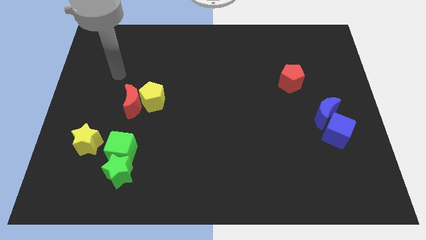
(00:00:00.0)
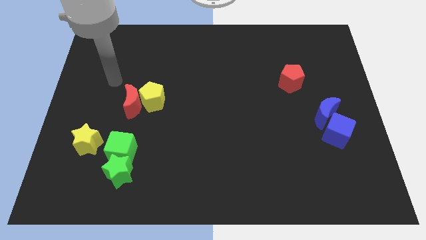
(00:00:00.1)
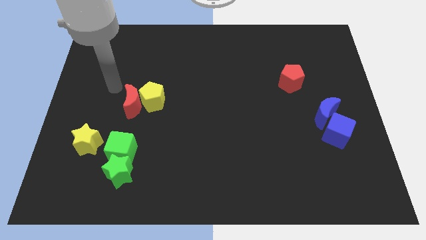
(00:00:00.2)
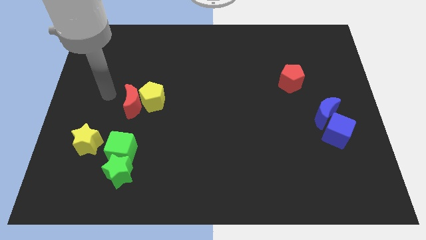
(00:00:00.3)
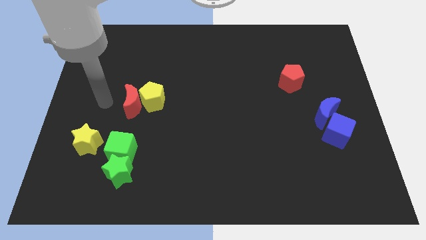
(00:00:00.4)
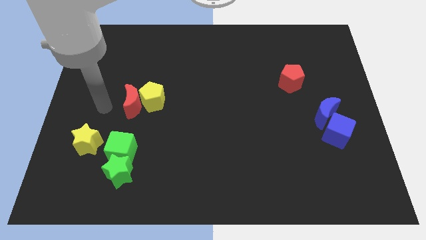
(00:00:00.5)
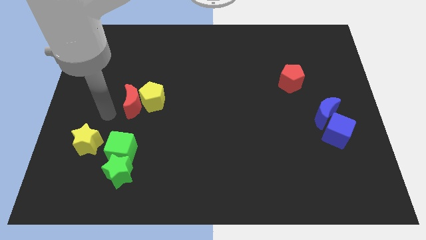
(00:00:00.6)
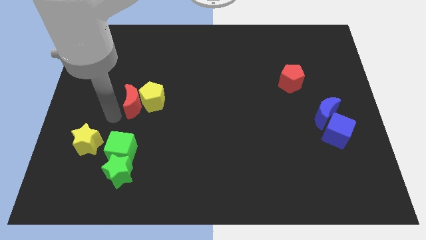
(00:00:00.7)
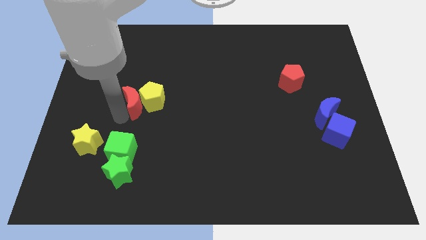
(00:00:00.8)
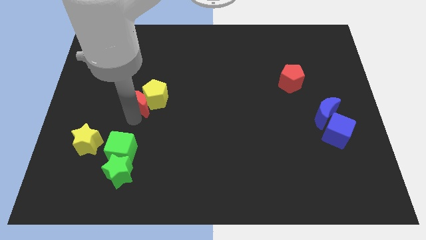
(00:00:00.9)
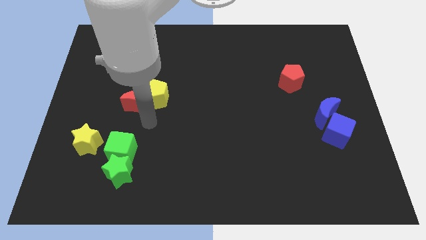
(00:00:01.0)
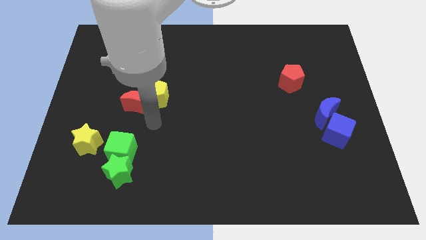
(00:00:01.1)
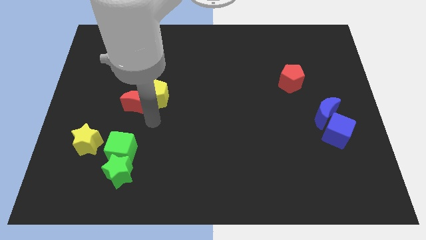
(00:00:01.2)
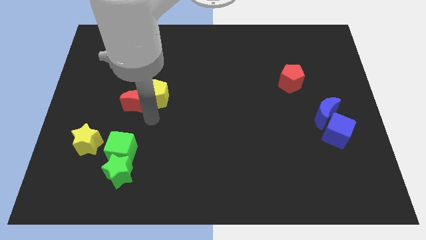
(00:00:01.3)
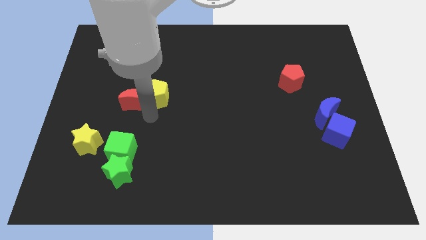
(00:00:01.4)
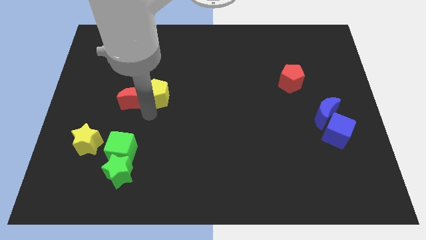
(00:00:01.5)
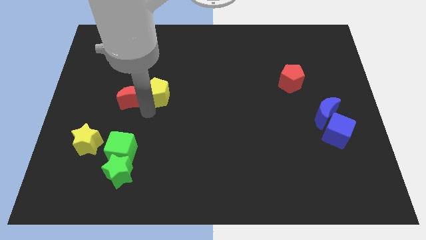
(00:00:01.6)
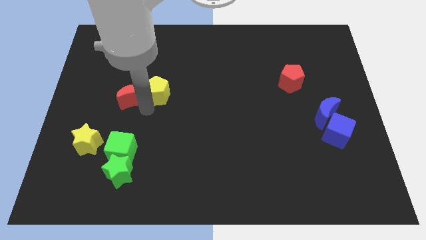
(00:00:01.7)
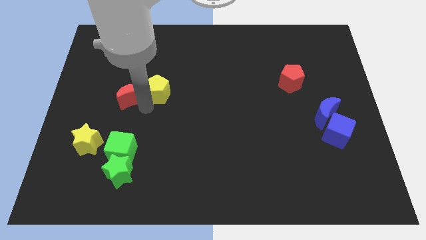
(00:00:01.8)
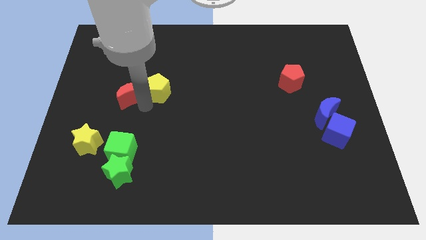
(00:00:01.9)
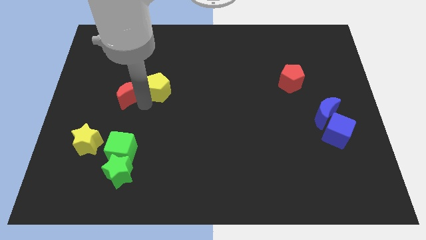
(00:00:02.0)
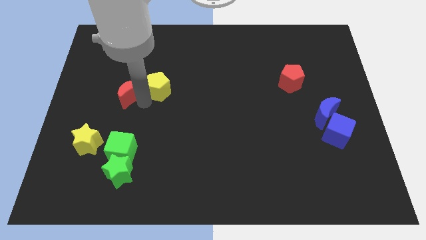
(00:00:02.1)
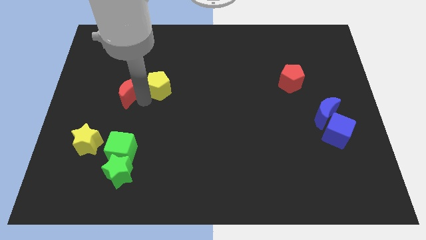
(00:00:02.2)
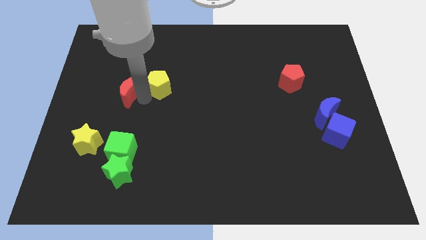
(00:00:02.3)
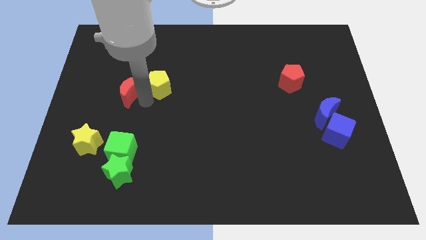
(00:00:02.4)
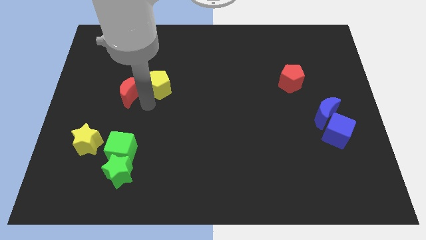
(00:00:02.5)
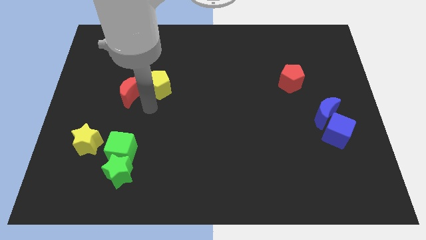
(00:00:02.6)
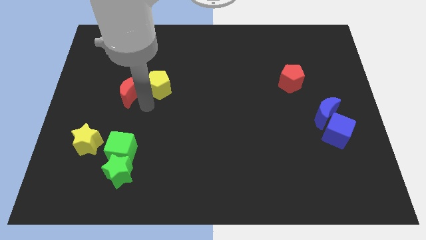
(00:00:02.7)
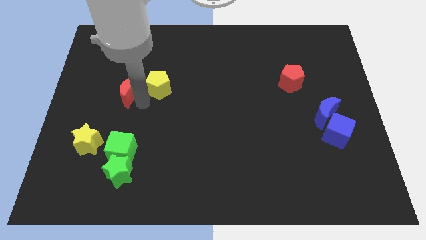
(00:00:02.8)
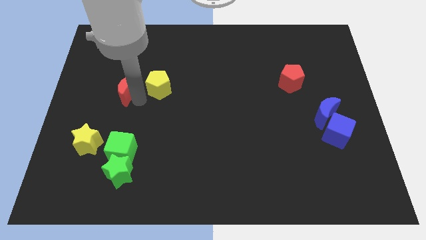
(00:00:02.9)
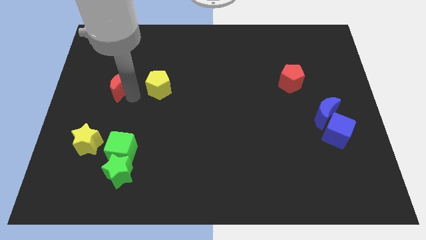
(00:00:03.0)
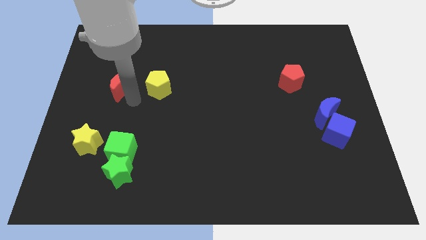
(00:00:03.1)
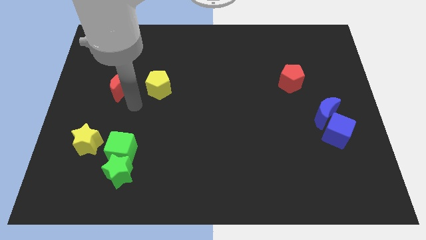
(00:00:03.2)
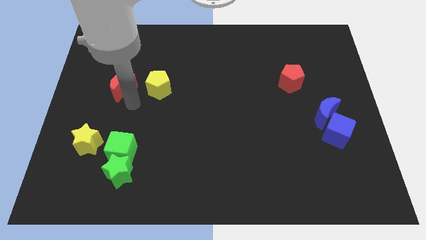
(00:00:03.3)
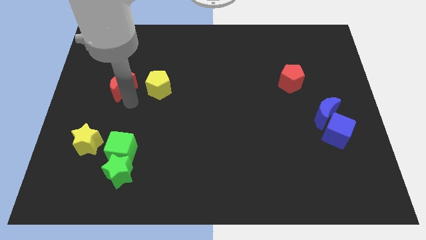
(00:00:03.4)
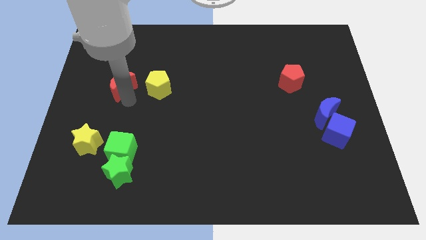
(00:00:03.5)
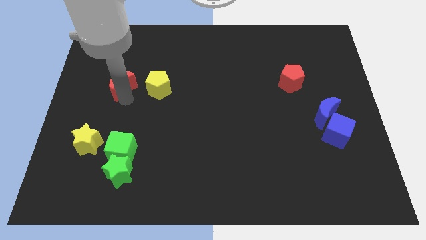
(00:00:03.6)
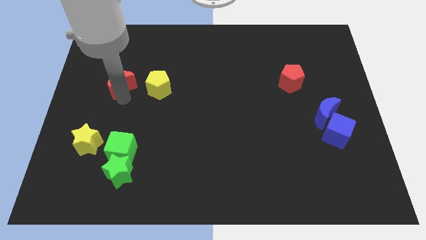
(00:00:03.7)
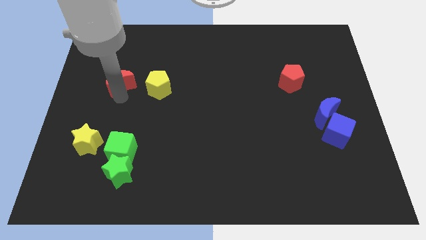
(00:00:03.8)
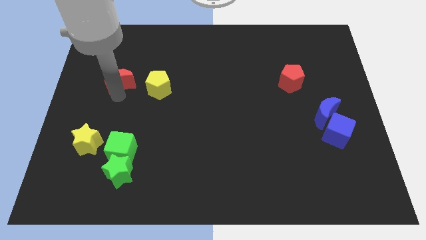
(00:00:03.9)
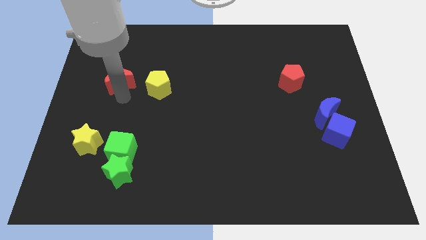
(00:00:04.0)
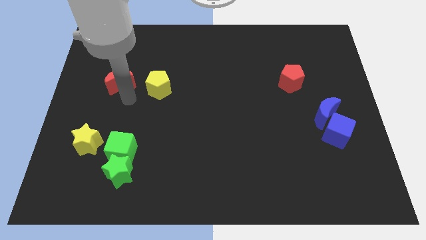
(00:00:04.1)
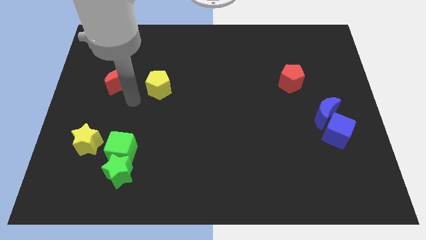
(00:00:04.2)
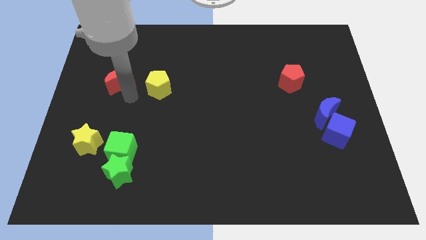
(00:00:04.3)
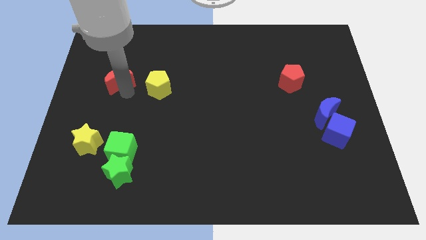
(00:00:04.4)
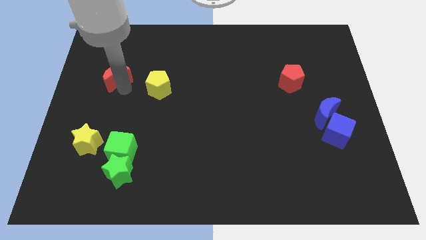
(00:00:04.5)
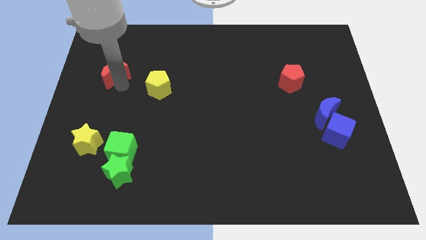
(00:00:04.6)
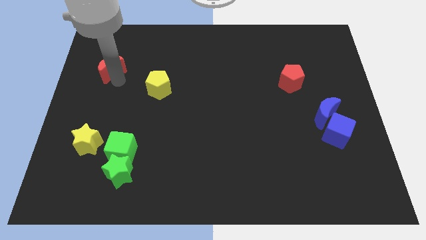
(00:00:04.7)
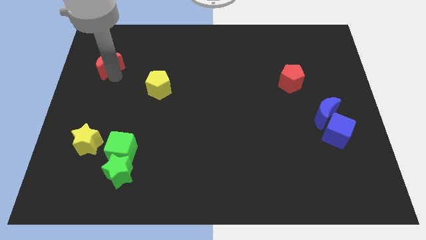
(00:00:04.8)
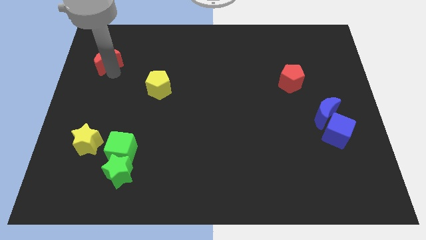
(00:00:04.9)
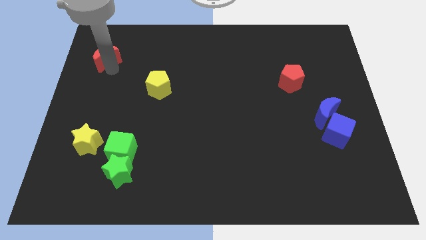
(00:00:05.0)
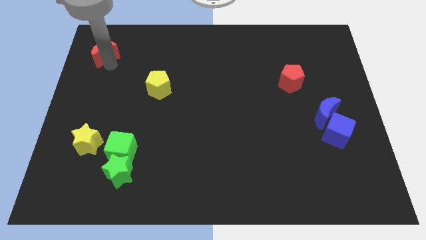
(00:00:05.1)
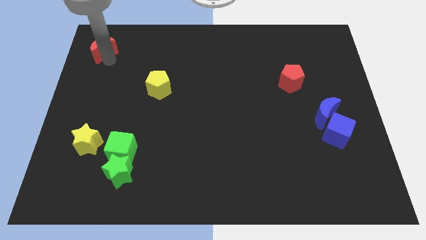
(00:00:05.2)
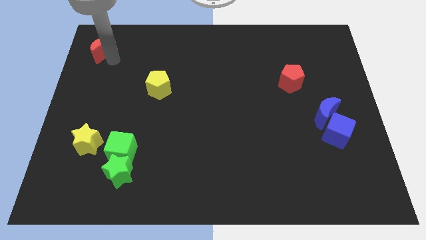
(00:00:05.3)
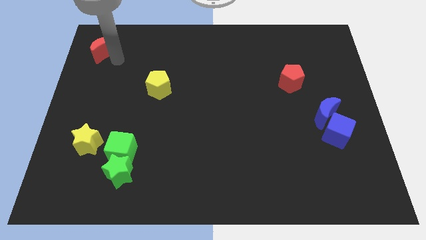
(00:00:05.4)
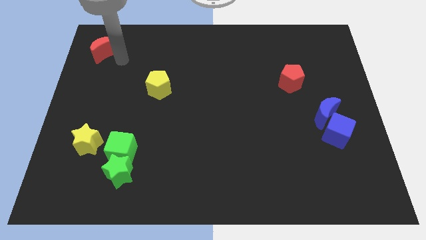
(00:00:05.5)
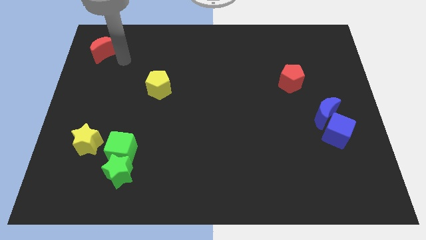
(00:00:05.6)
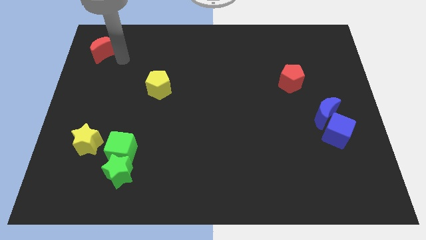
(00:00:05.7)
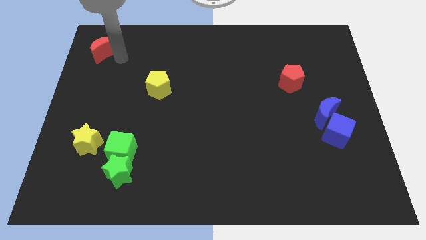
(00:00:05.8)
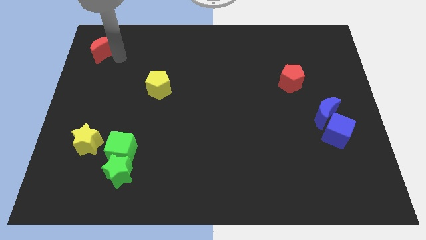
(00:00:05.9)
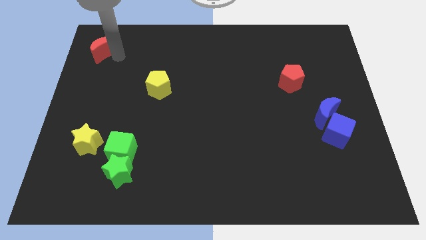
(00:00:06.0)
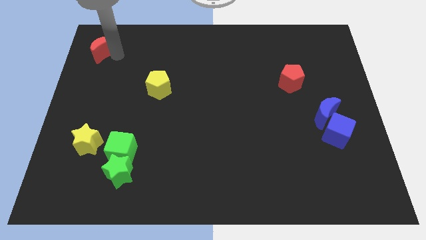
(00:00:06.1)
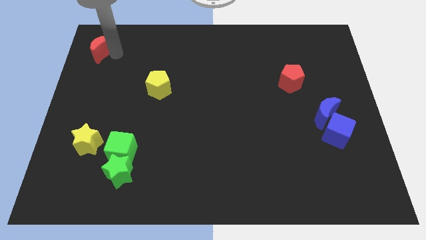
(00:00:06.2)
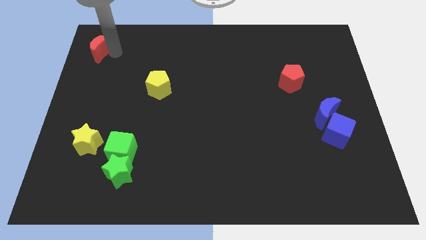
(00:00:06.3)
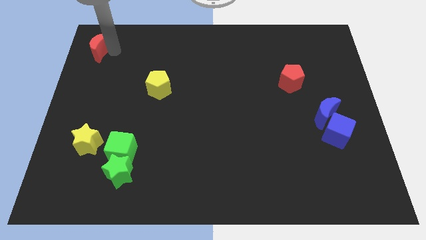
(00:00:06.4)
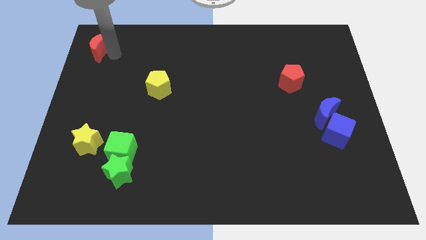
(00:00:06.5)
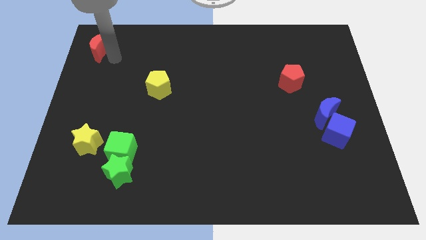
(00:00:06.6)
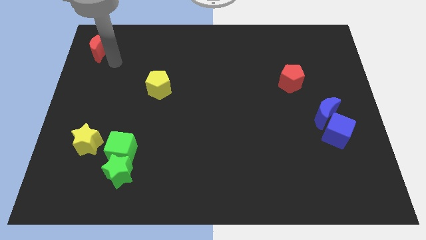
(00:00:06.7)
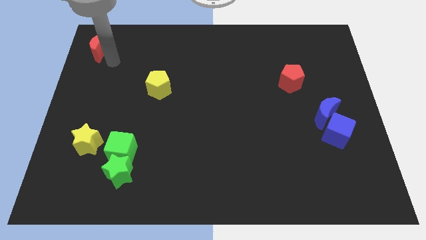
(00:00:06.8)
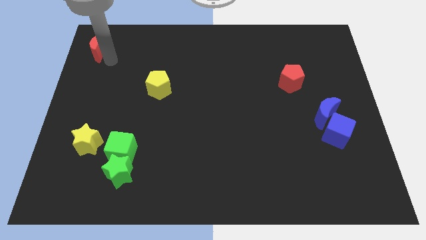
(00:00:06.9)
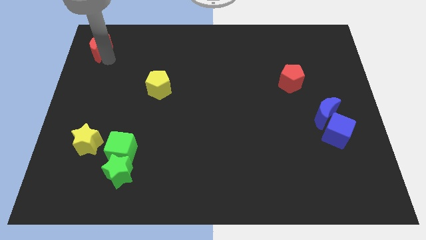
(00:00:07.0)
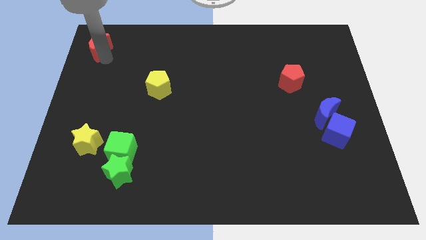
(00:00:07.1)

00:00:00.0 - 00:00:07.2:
push the red moon to the upper left corner
